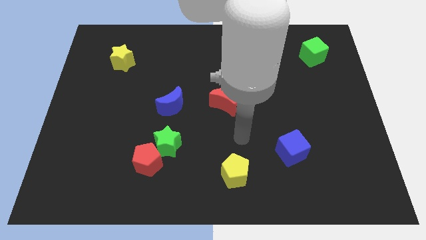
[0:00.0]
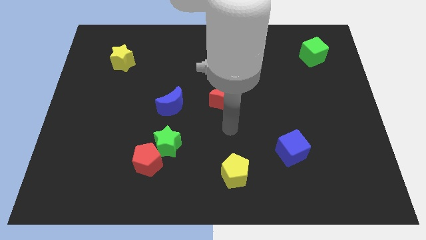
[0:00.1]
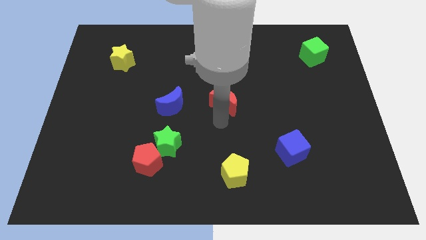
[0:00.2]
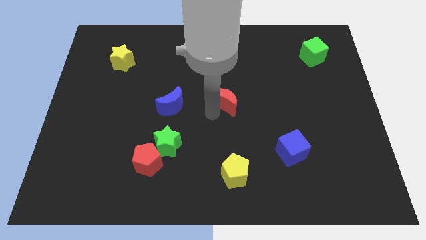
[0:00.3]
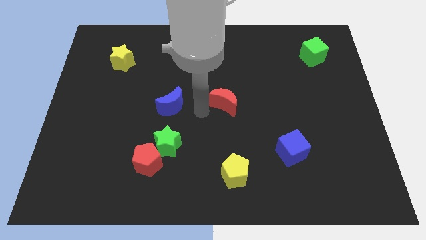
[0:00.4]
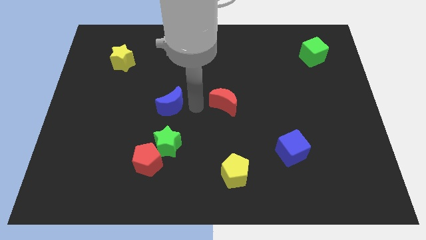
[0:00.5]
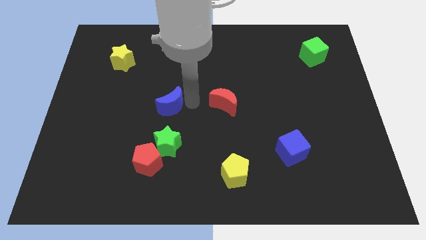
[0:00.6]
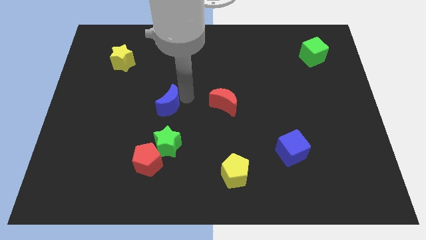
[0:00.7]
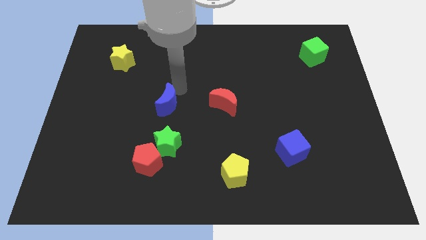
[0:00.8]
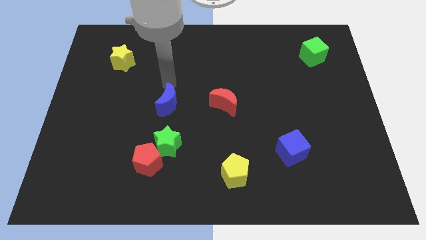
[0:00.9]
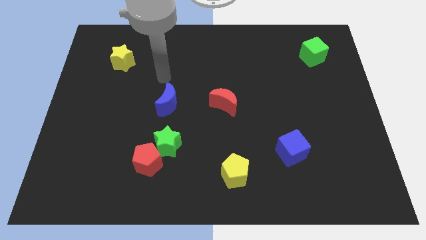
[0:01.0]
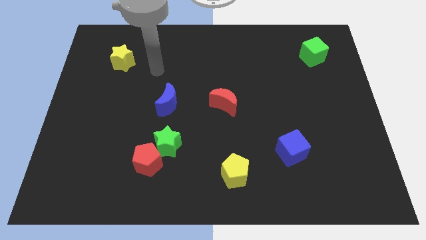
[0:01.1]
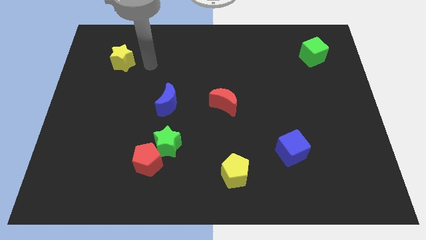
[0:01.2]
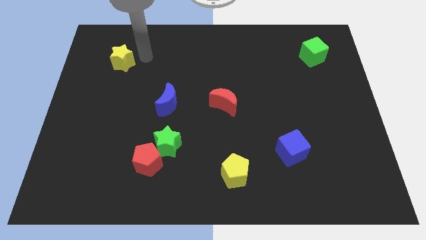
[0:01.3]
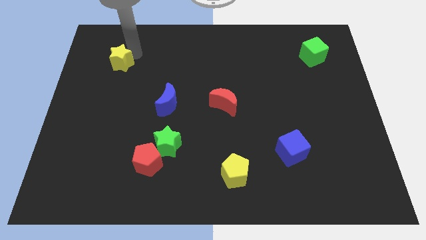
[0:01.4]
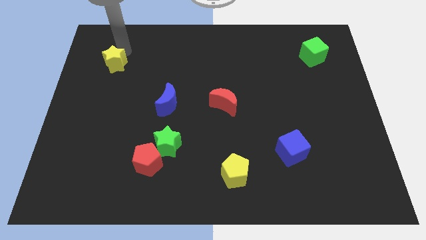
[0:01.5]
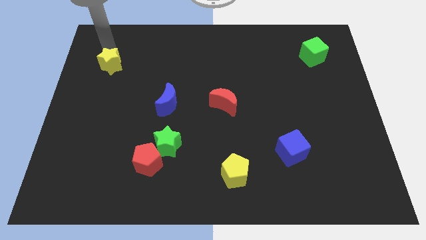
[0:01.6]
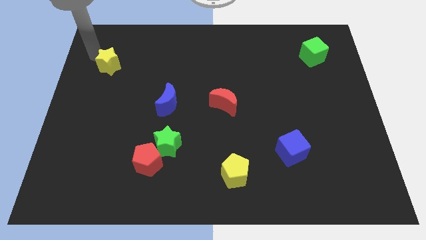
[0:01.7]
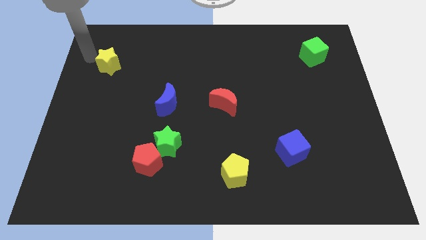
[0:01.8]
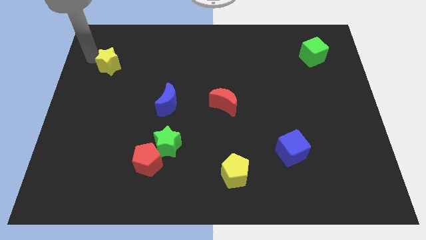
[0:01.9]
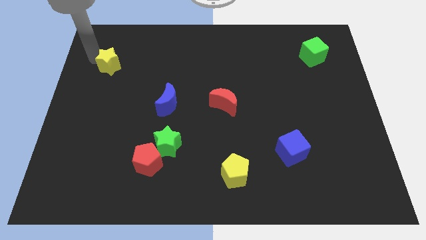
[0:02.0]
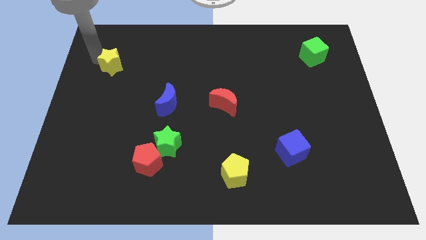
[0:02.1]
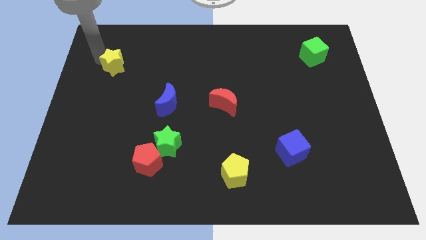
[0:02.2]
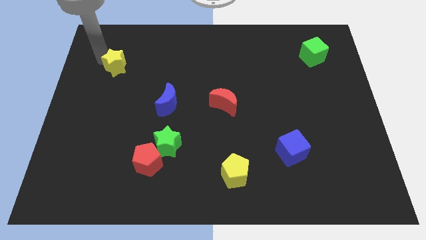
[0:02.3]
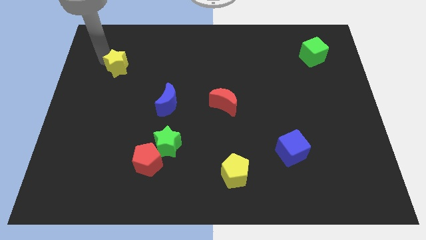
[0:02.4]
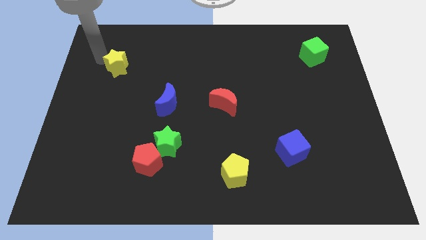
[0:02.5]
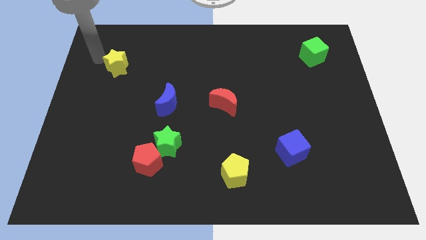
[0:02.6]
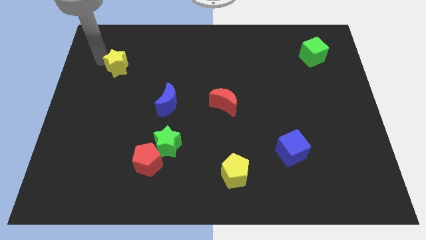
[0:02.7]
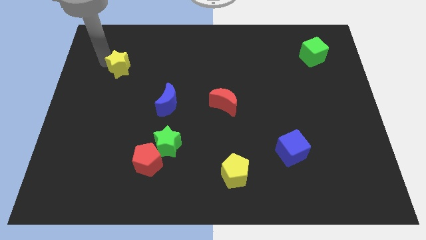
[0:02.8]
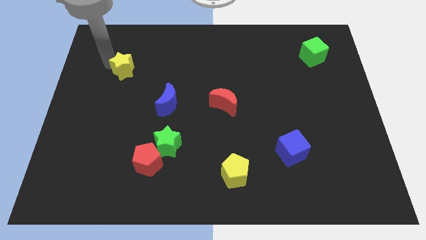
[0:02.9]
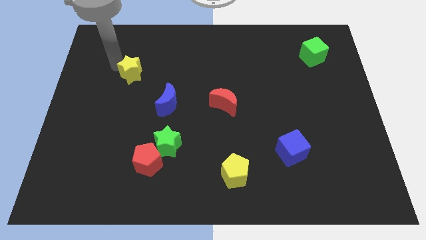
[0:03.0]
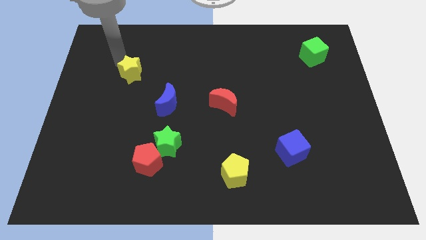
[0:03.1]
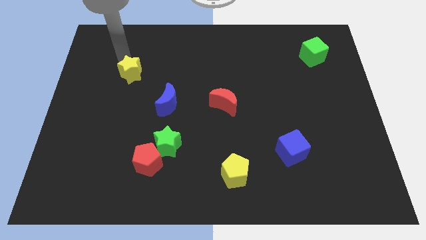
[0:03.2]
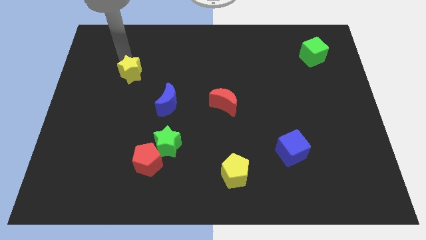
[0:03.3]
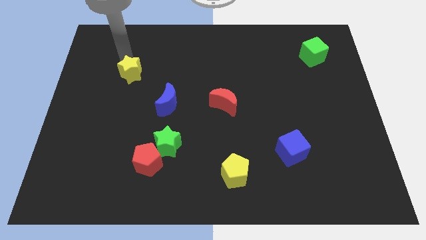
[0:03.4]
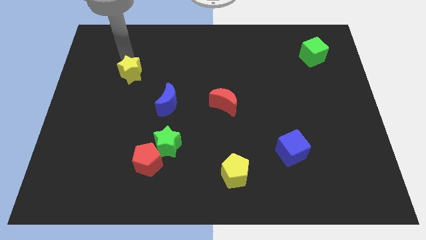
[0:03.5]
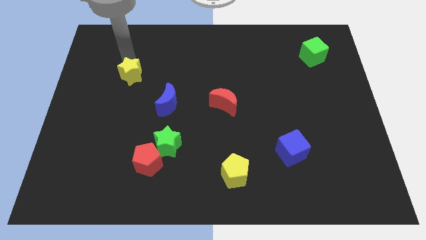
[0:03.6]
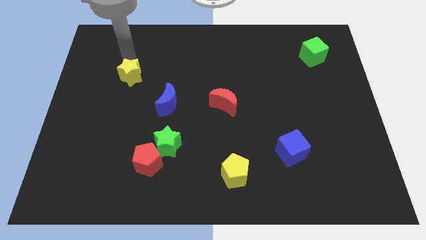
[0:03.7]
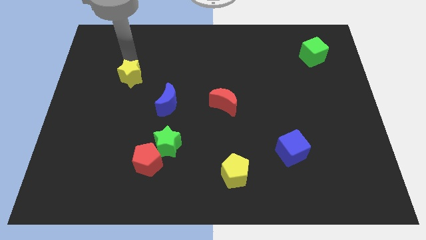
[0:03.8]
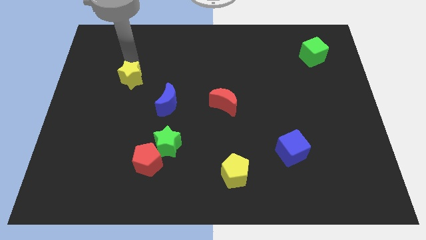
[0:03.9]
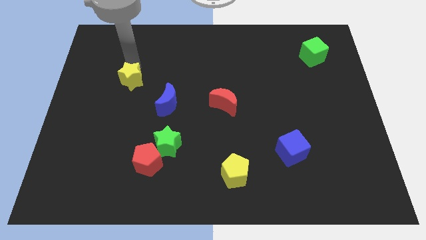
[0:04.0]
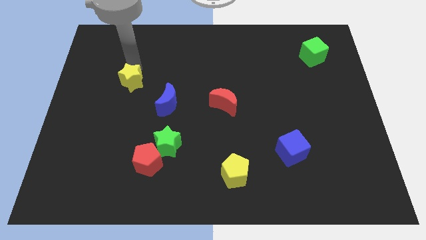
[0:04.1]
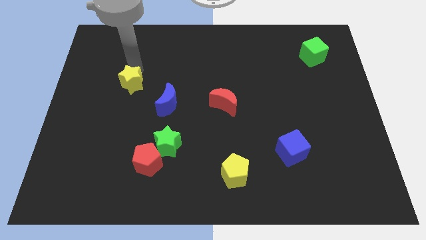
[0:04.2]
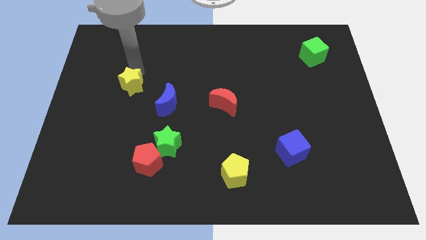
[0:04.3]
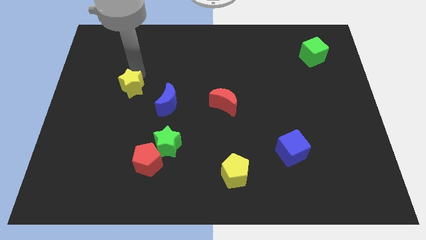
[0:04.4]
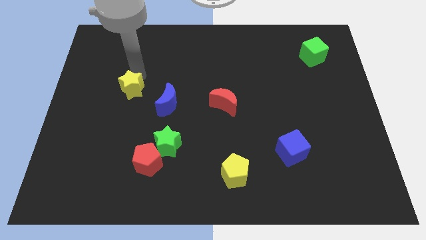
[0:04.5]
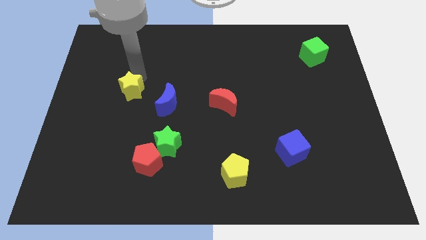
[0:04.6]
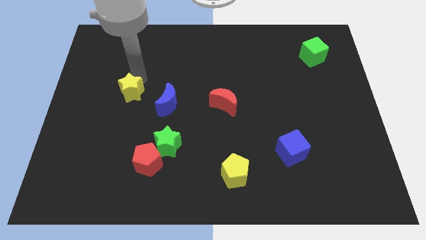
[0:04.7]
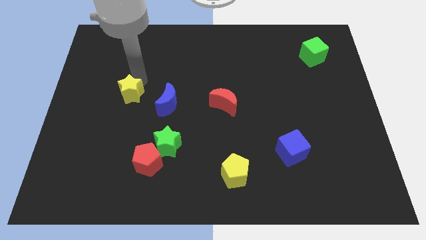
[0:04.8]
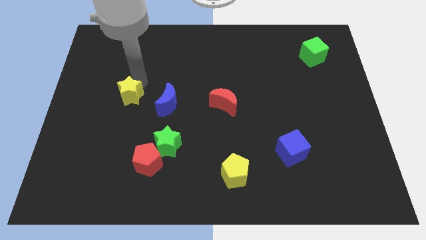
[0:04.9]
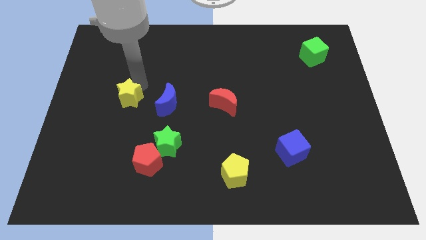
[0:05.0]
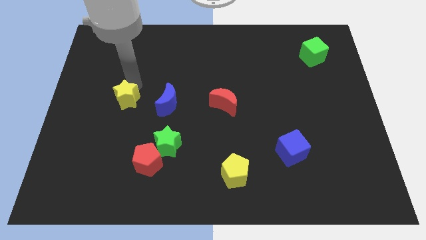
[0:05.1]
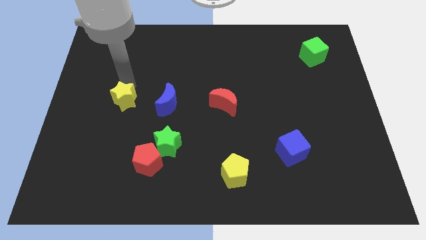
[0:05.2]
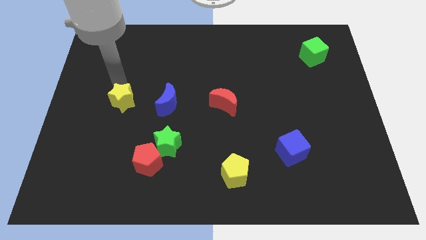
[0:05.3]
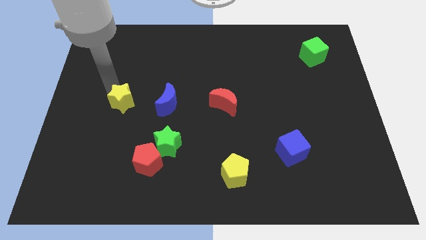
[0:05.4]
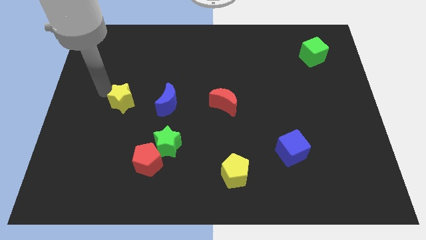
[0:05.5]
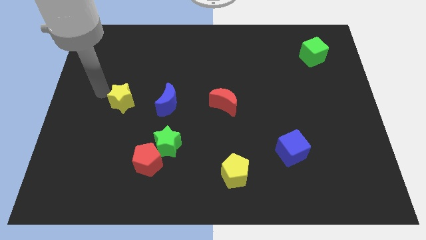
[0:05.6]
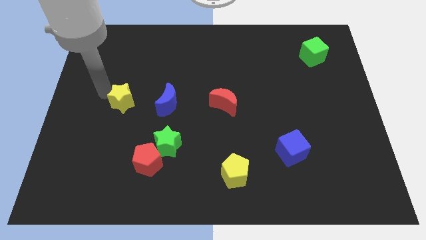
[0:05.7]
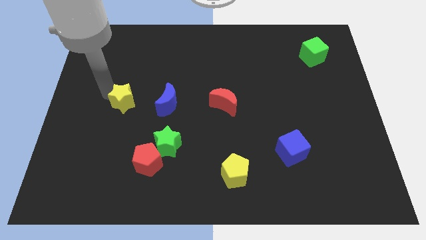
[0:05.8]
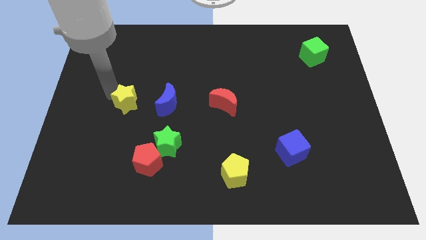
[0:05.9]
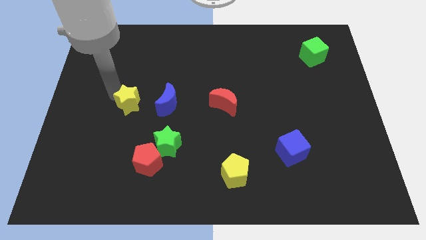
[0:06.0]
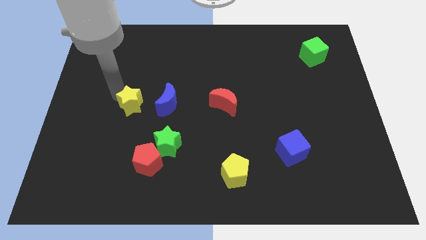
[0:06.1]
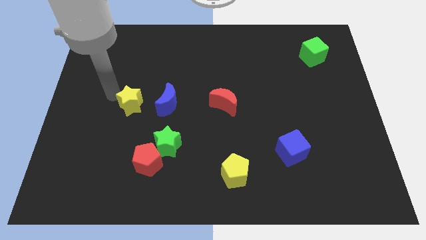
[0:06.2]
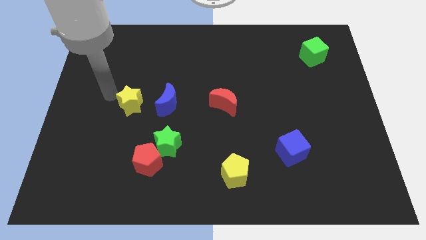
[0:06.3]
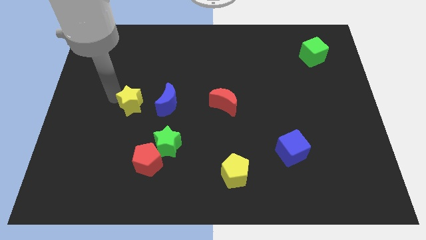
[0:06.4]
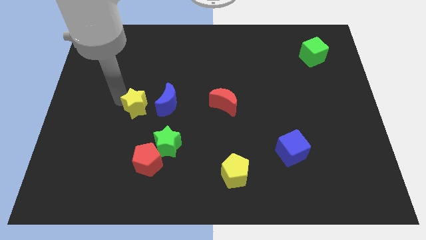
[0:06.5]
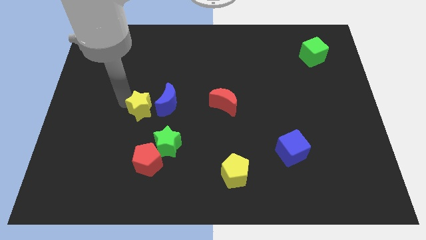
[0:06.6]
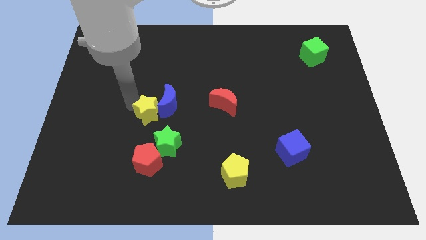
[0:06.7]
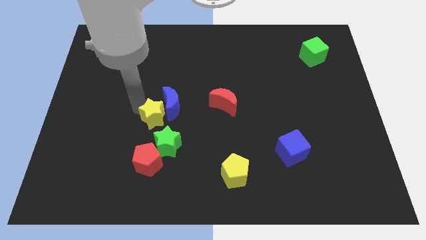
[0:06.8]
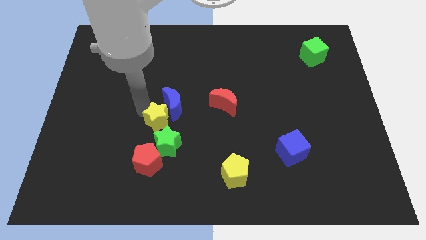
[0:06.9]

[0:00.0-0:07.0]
slide the yellow star down and then right

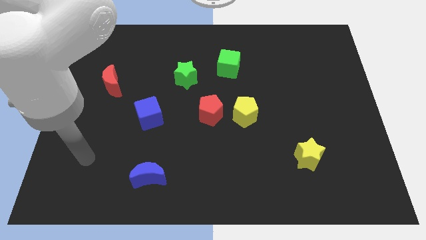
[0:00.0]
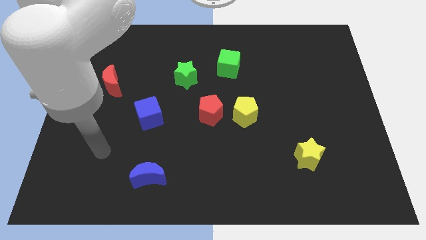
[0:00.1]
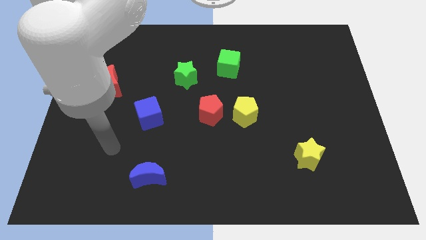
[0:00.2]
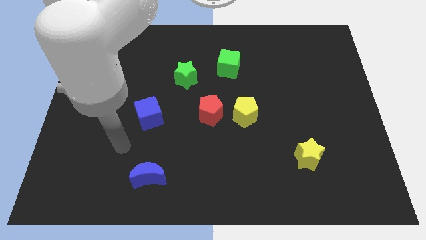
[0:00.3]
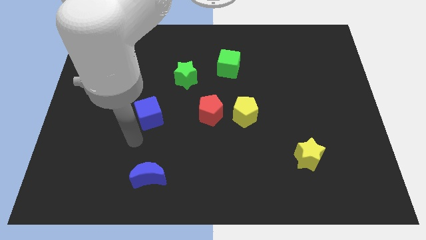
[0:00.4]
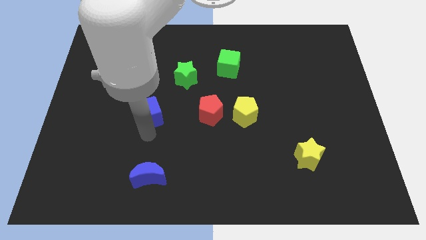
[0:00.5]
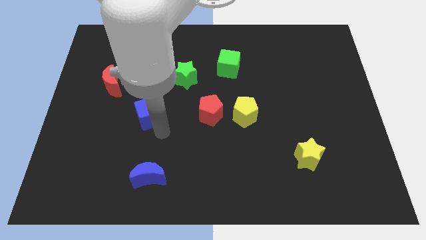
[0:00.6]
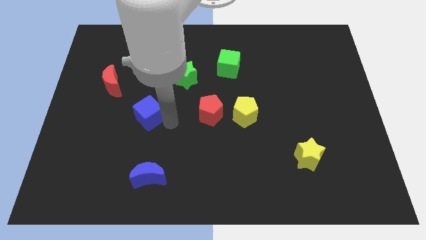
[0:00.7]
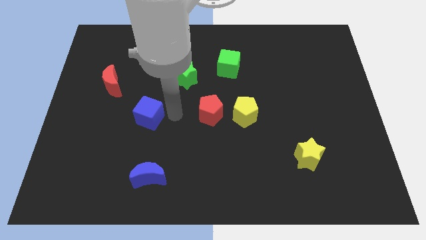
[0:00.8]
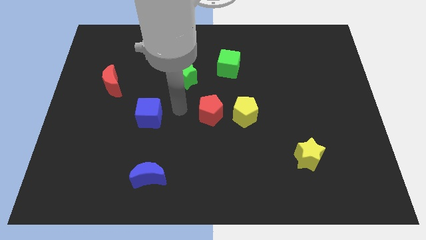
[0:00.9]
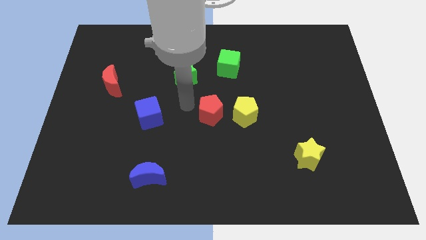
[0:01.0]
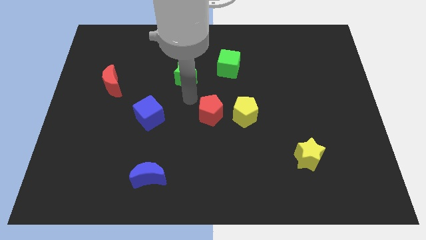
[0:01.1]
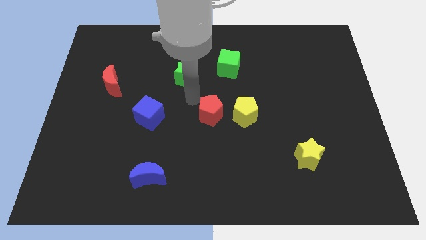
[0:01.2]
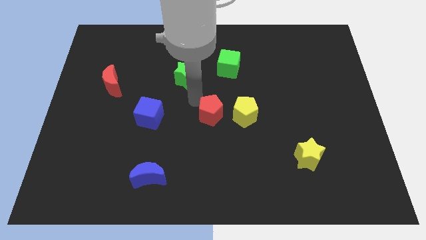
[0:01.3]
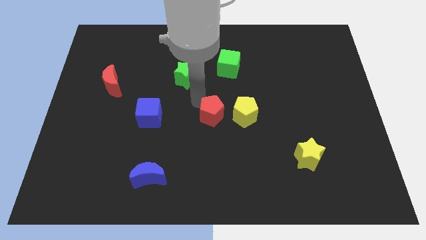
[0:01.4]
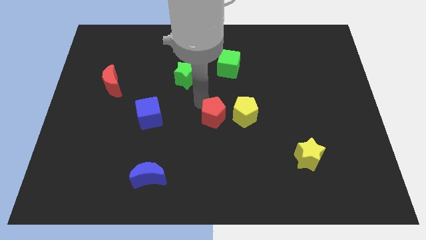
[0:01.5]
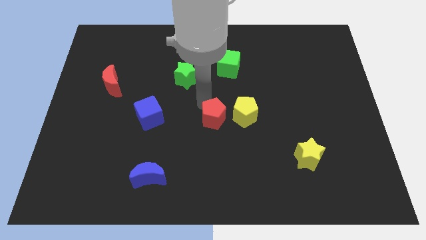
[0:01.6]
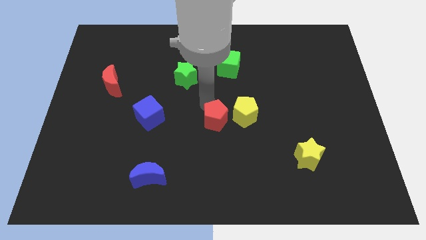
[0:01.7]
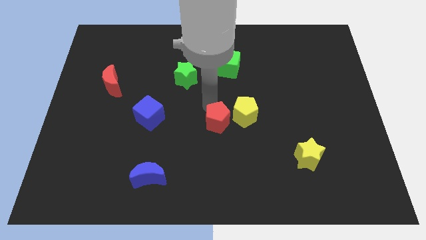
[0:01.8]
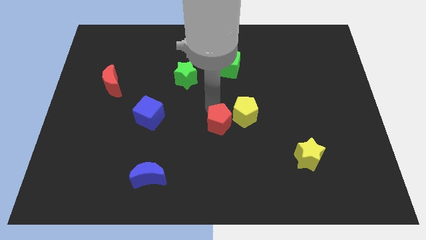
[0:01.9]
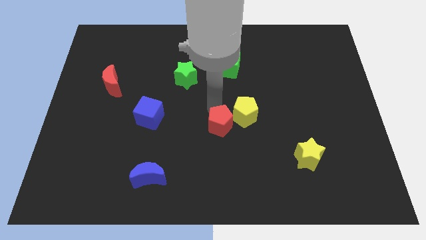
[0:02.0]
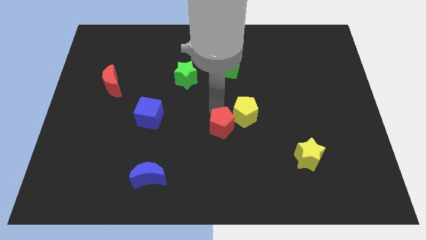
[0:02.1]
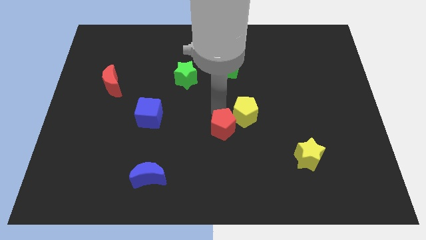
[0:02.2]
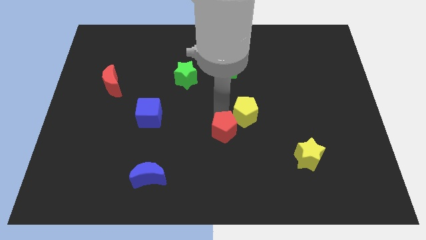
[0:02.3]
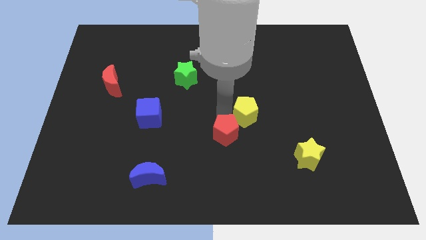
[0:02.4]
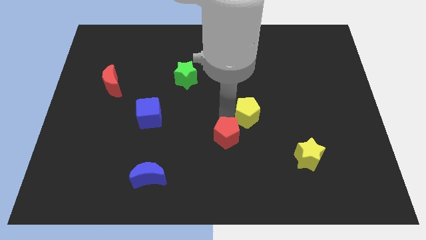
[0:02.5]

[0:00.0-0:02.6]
move the red pentagon somewhat downwards and right diagonally
